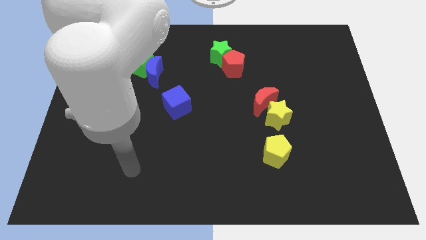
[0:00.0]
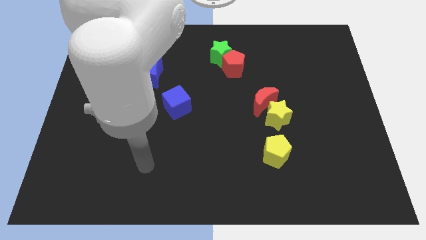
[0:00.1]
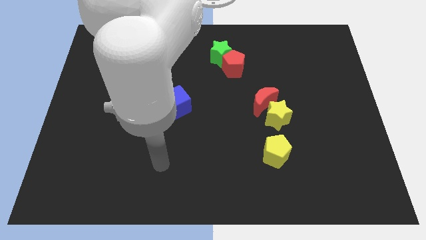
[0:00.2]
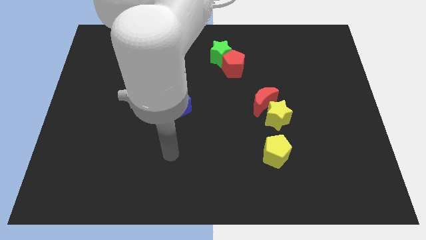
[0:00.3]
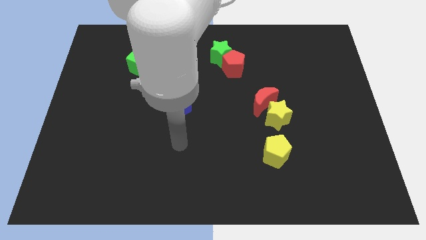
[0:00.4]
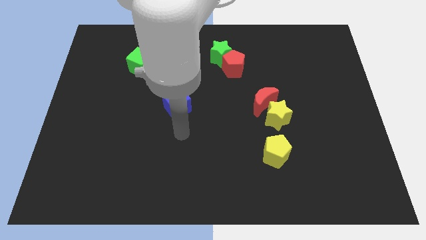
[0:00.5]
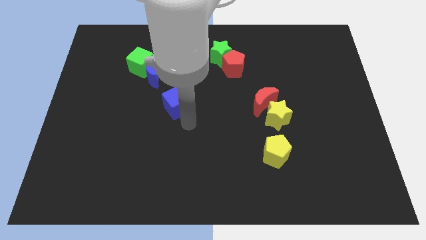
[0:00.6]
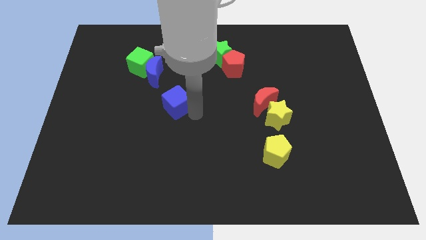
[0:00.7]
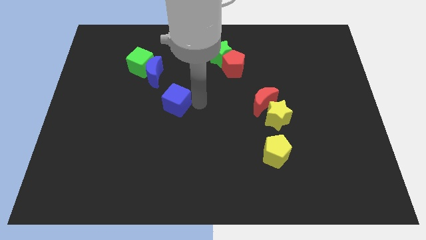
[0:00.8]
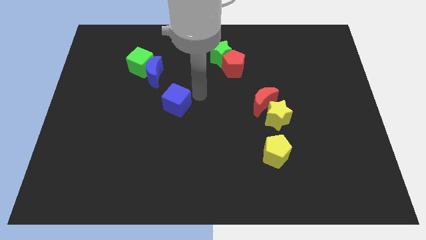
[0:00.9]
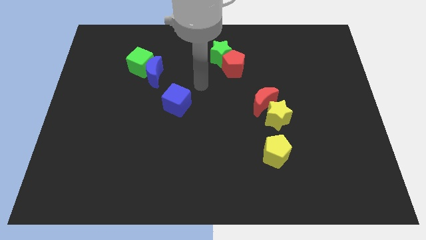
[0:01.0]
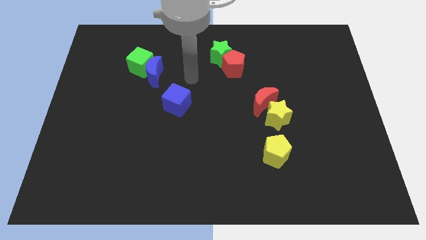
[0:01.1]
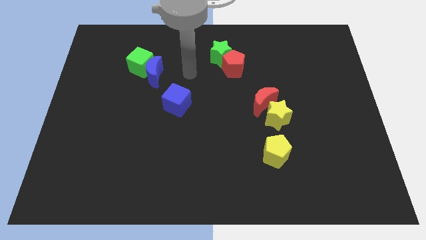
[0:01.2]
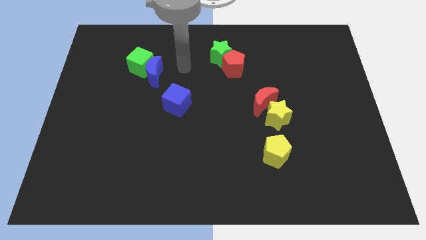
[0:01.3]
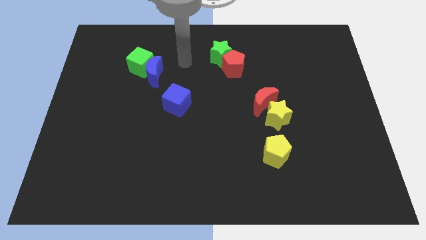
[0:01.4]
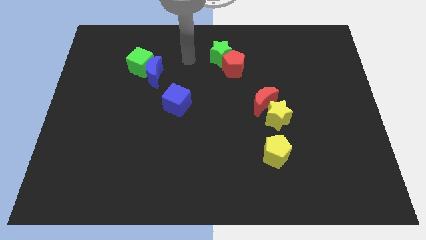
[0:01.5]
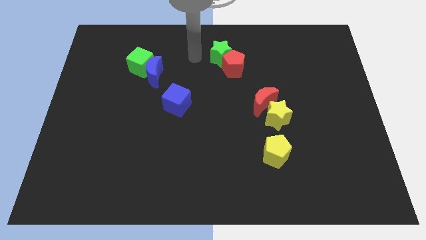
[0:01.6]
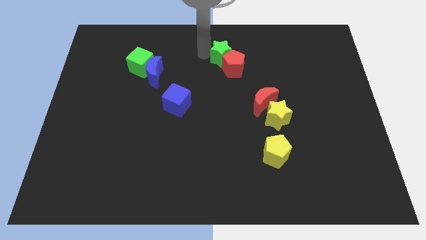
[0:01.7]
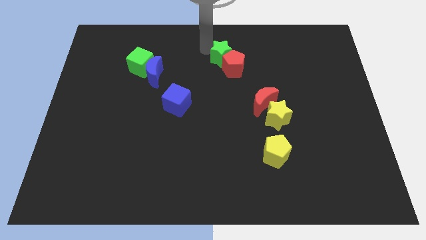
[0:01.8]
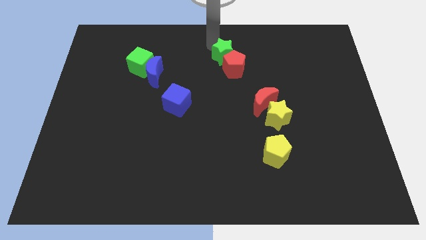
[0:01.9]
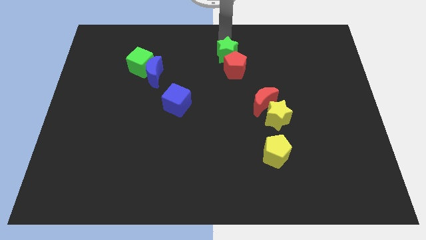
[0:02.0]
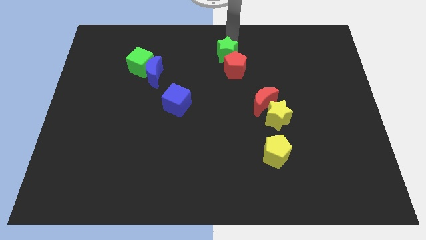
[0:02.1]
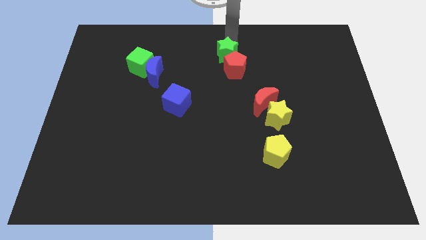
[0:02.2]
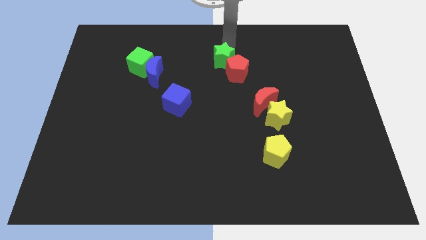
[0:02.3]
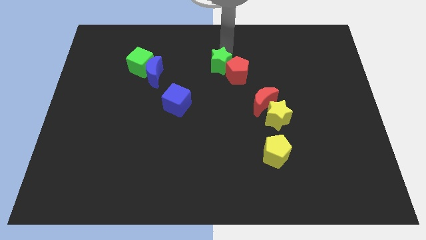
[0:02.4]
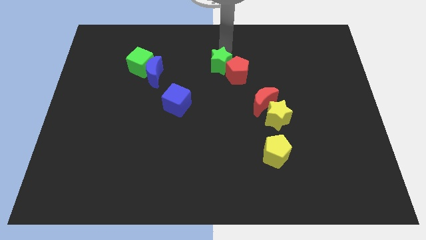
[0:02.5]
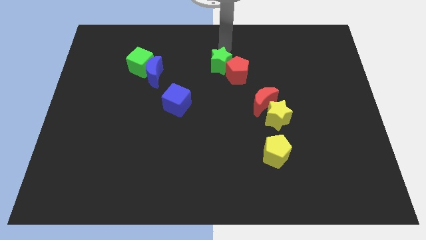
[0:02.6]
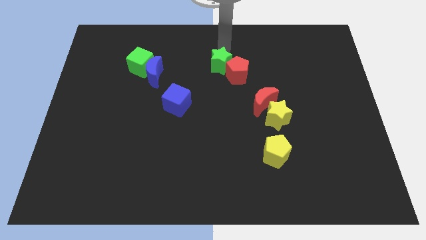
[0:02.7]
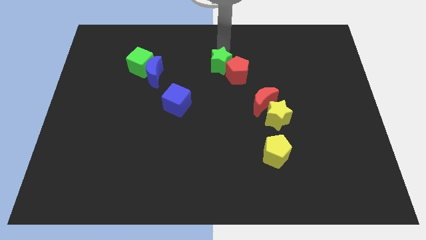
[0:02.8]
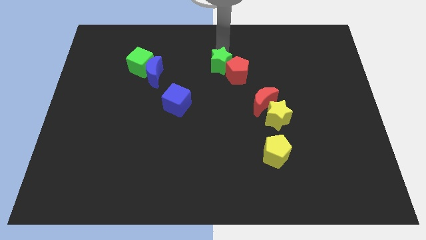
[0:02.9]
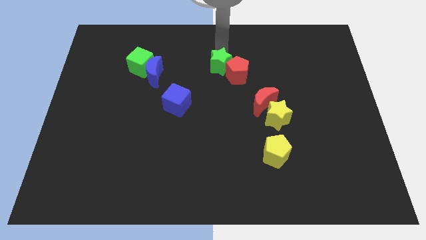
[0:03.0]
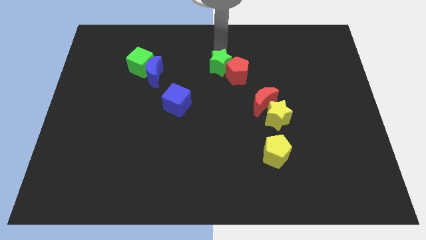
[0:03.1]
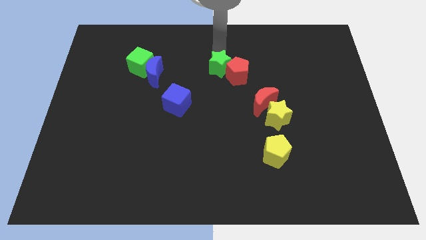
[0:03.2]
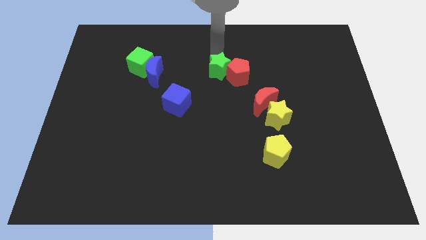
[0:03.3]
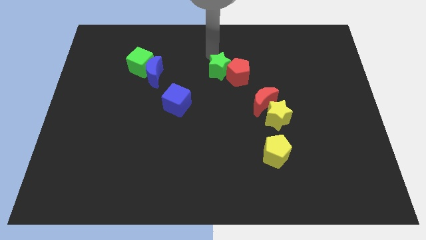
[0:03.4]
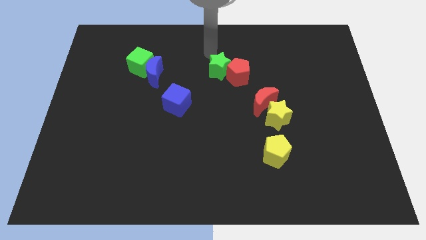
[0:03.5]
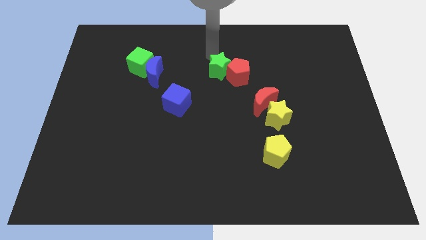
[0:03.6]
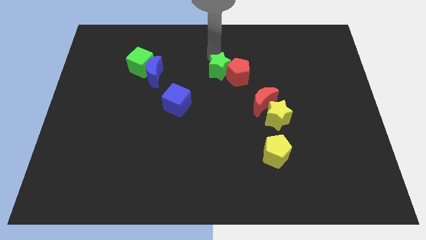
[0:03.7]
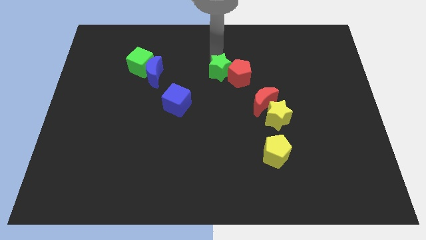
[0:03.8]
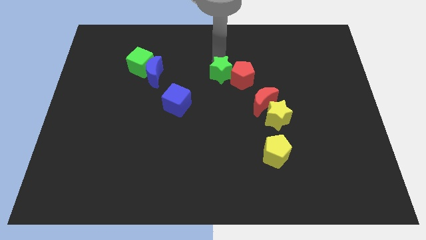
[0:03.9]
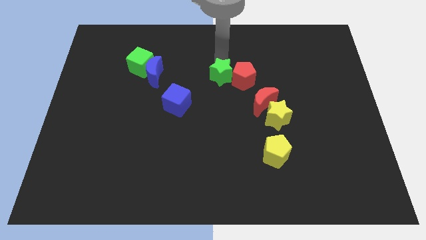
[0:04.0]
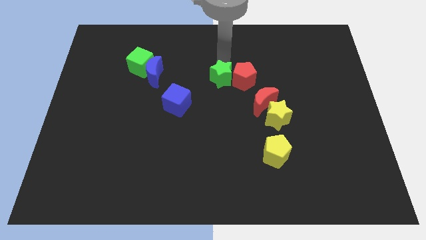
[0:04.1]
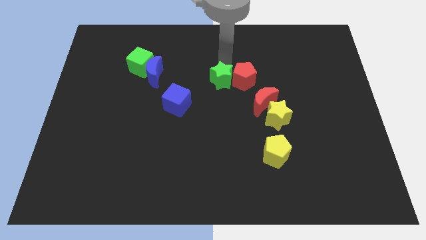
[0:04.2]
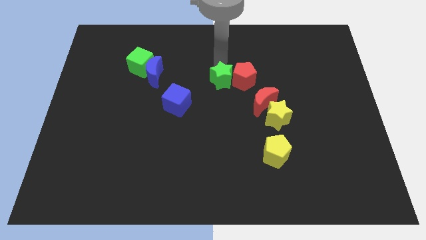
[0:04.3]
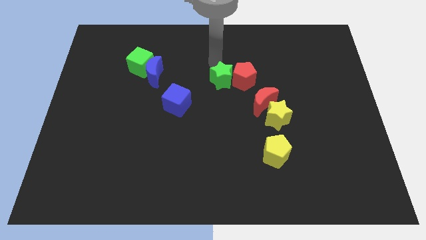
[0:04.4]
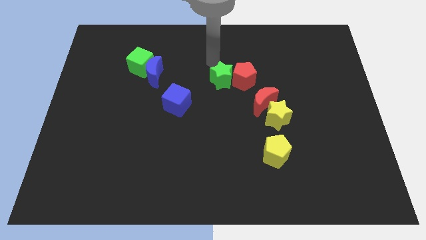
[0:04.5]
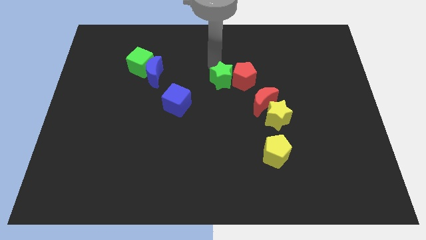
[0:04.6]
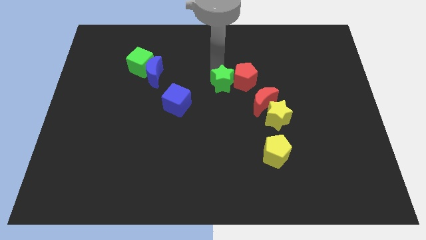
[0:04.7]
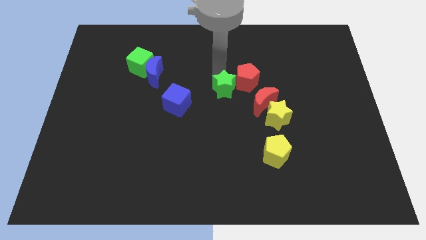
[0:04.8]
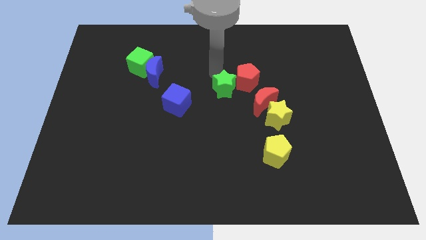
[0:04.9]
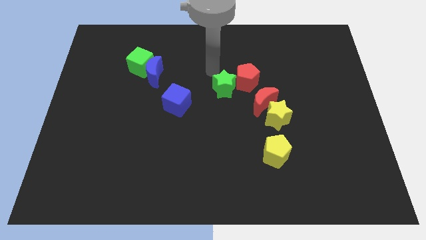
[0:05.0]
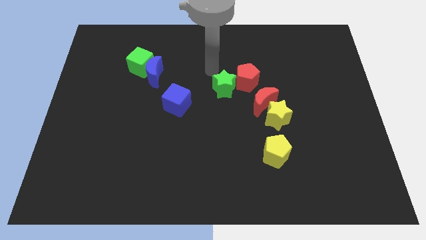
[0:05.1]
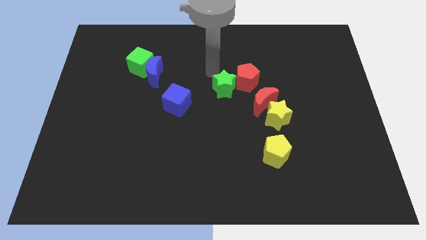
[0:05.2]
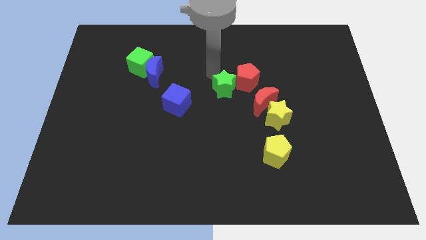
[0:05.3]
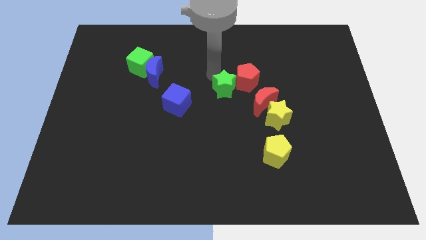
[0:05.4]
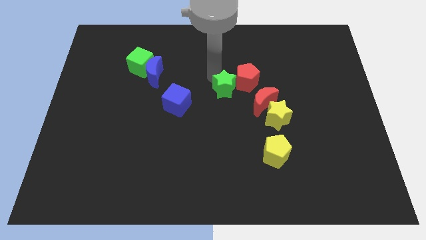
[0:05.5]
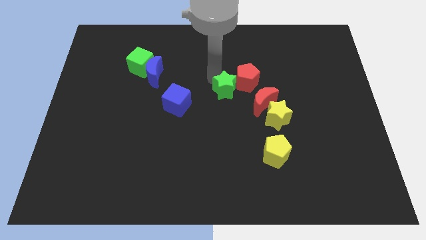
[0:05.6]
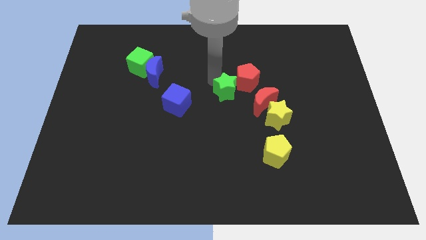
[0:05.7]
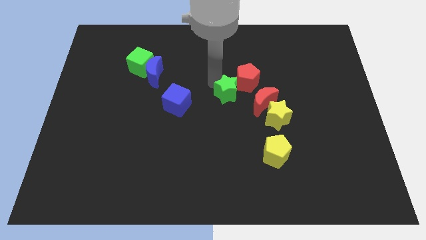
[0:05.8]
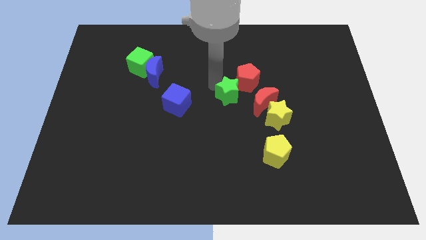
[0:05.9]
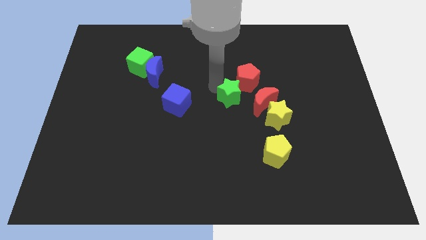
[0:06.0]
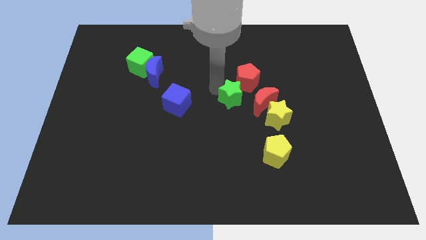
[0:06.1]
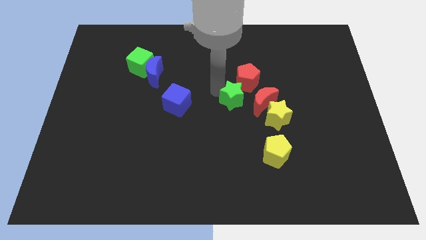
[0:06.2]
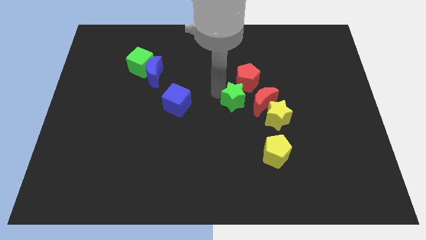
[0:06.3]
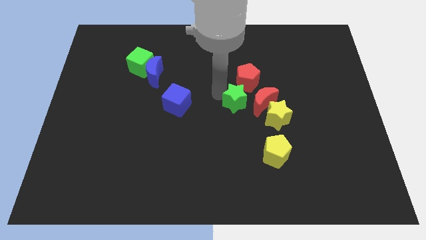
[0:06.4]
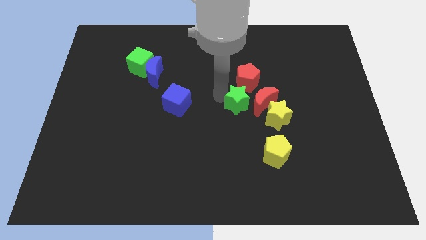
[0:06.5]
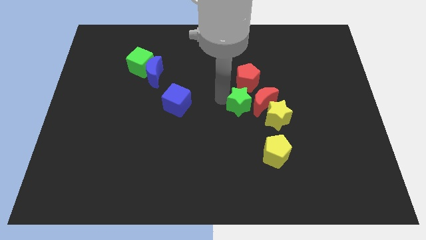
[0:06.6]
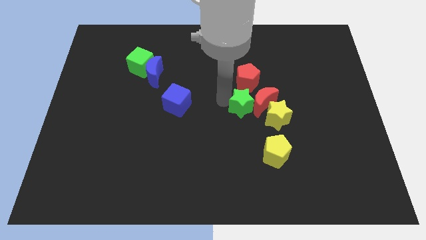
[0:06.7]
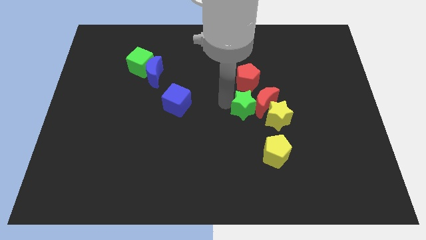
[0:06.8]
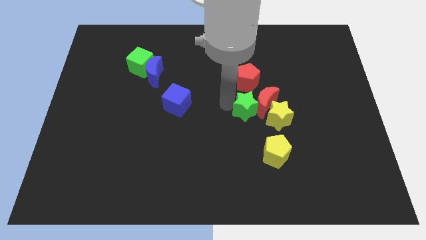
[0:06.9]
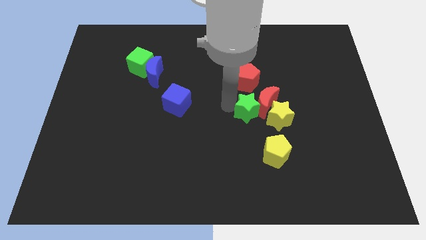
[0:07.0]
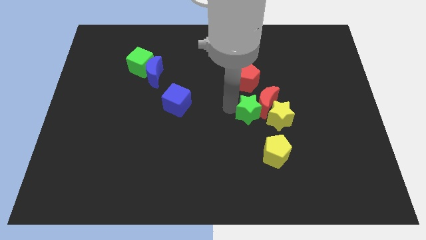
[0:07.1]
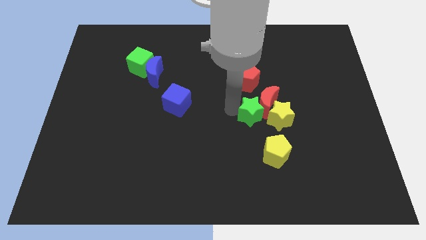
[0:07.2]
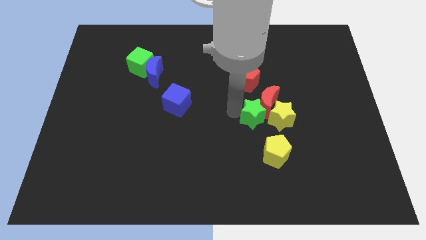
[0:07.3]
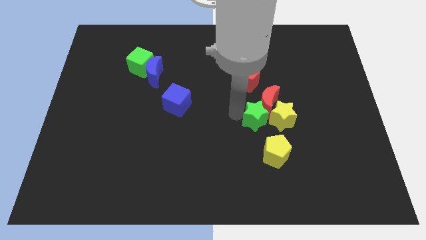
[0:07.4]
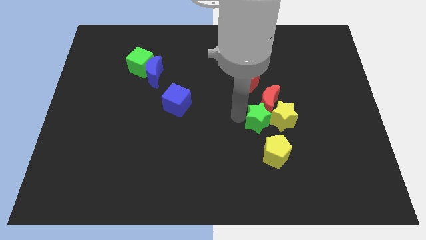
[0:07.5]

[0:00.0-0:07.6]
slide the green star to the yellow star

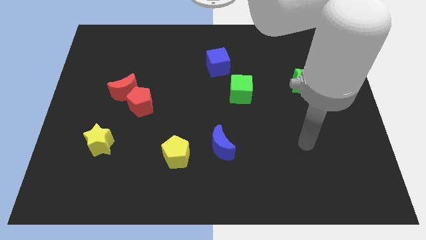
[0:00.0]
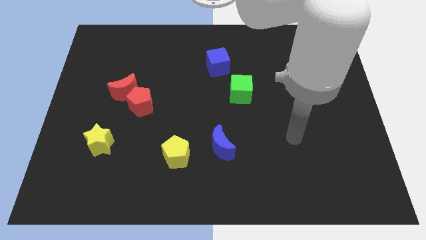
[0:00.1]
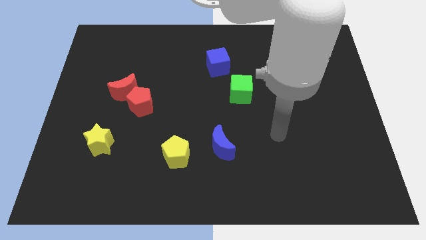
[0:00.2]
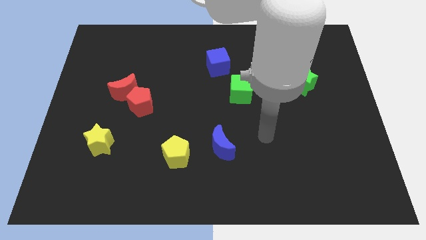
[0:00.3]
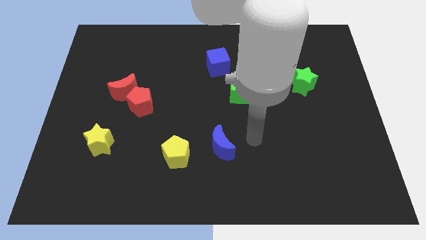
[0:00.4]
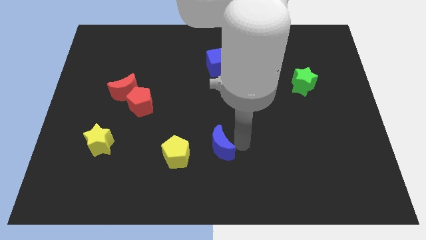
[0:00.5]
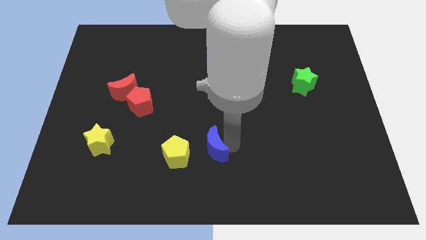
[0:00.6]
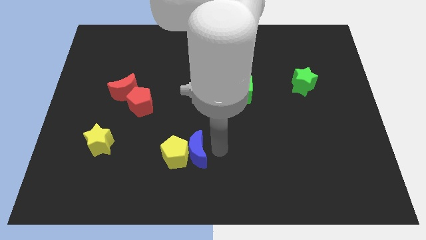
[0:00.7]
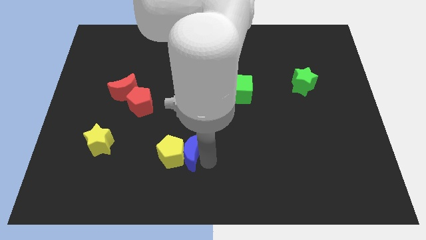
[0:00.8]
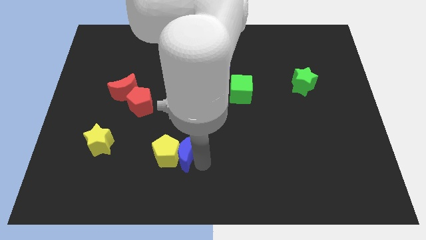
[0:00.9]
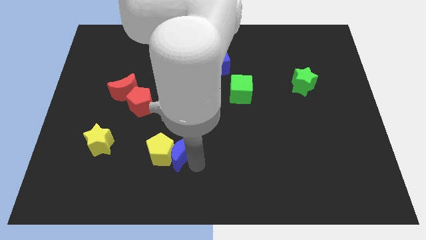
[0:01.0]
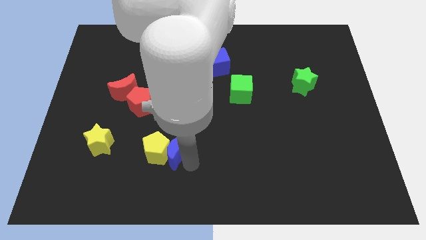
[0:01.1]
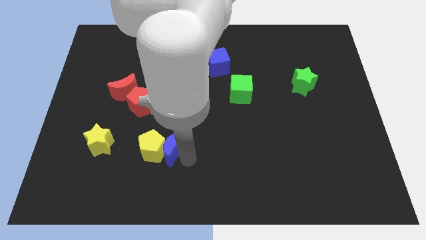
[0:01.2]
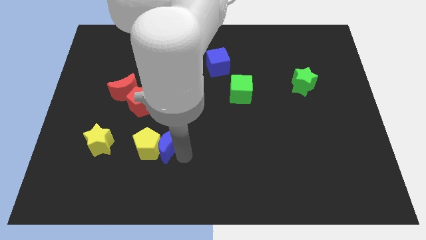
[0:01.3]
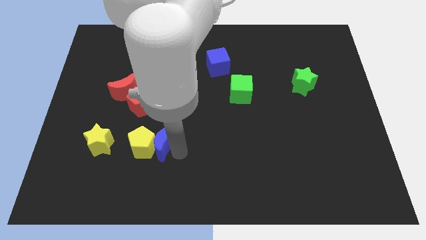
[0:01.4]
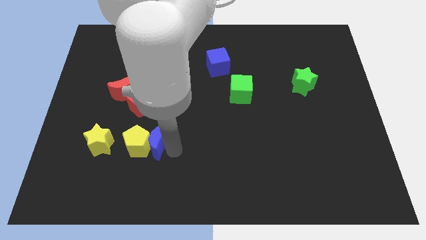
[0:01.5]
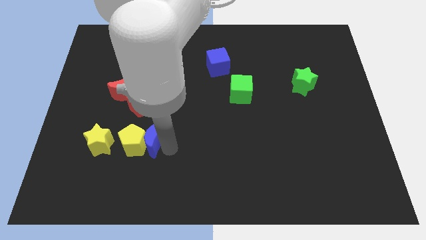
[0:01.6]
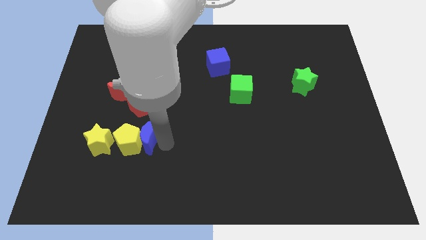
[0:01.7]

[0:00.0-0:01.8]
put the yellow pentagon next to the yellow star
